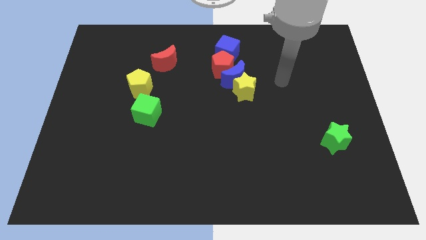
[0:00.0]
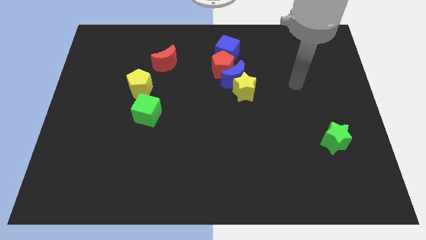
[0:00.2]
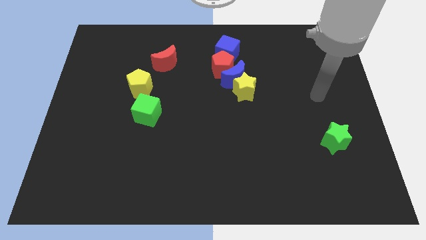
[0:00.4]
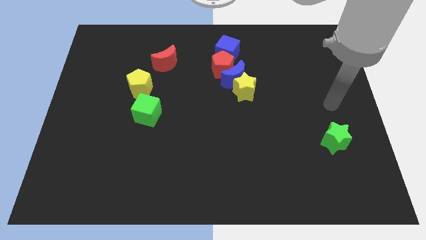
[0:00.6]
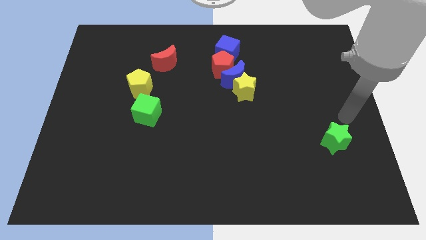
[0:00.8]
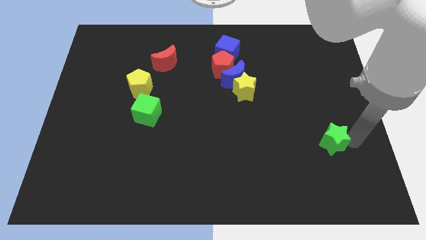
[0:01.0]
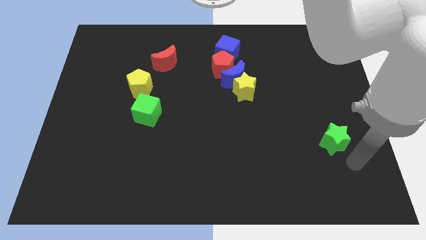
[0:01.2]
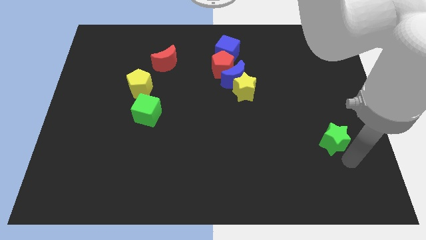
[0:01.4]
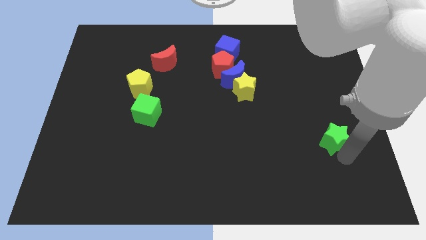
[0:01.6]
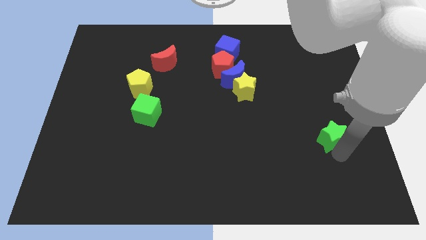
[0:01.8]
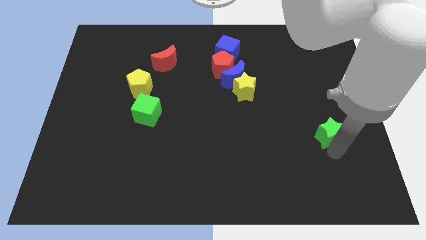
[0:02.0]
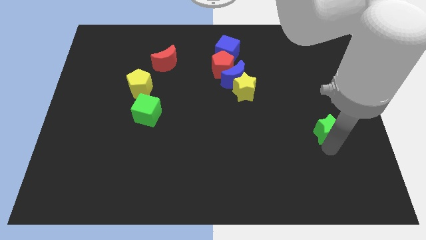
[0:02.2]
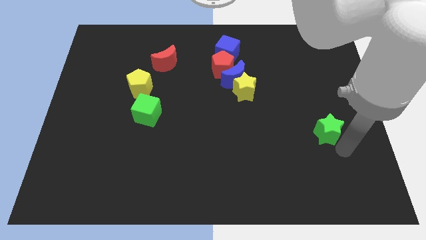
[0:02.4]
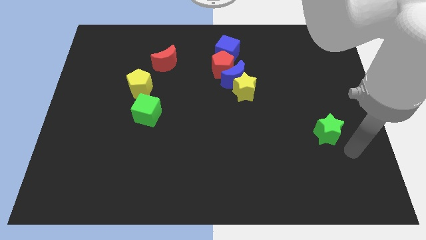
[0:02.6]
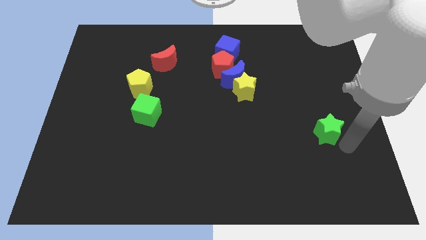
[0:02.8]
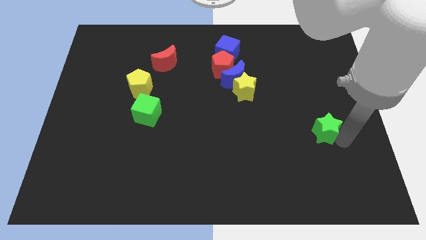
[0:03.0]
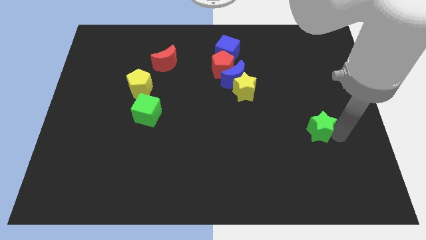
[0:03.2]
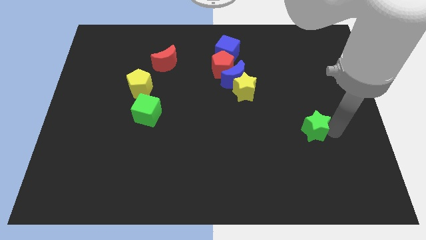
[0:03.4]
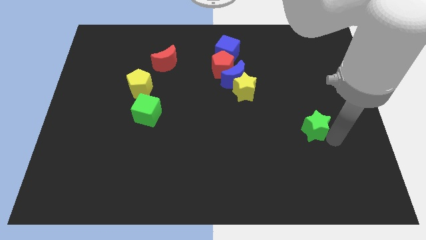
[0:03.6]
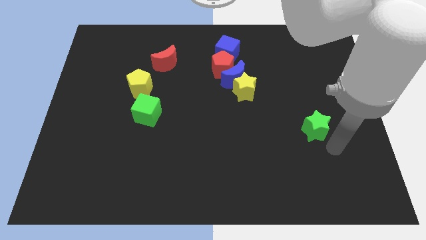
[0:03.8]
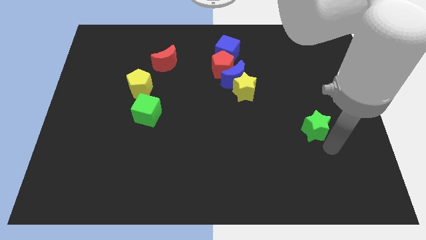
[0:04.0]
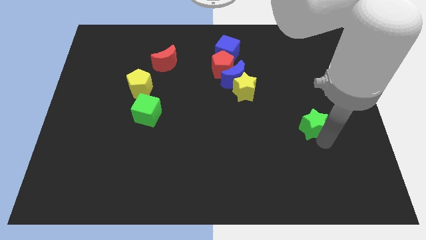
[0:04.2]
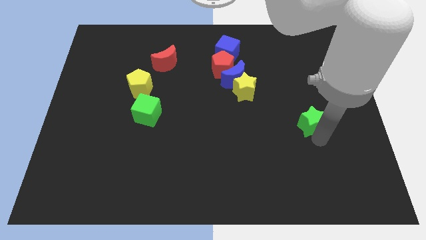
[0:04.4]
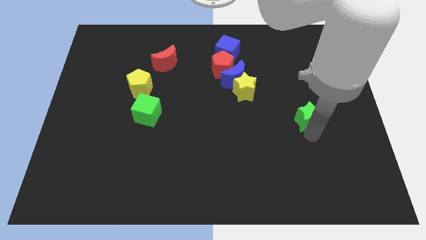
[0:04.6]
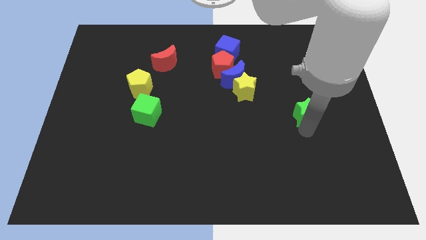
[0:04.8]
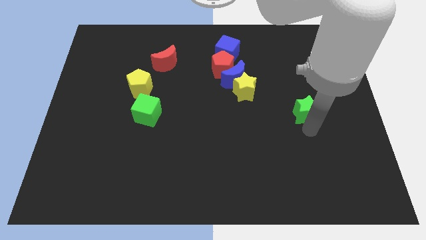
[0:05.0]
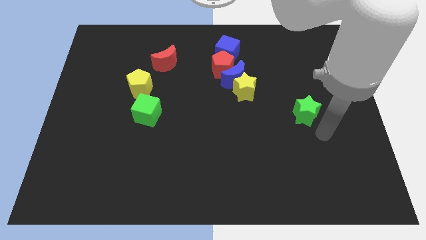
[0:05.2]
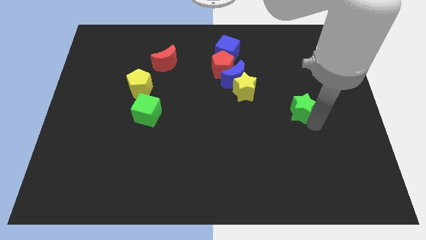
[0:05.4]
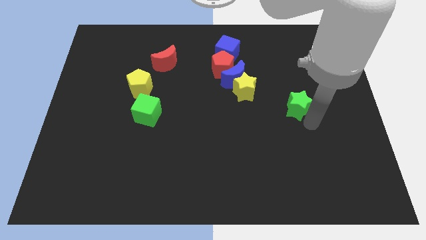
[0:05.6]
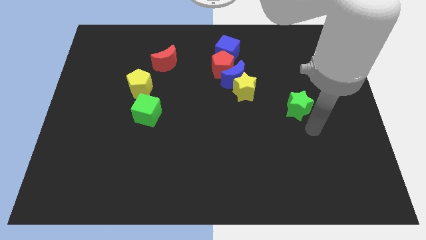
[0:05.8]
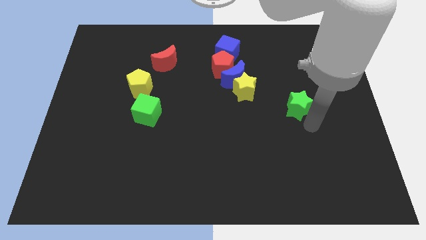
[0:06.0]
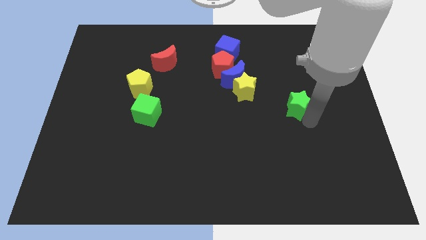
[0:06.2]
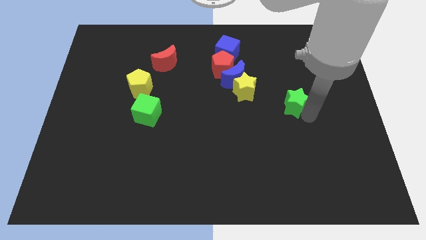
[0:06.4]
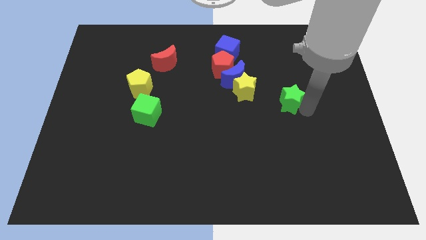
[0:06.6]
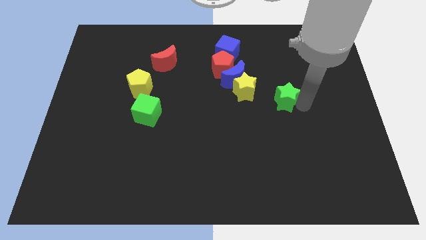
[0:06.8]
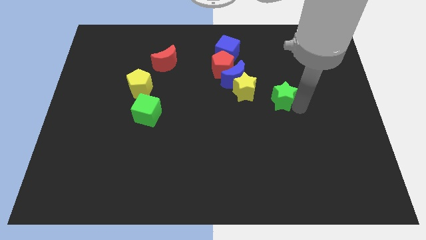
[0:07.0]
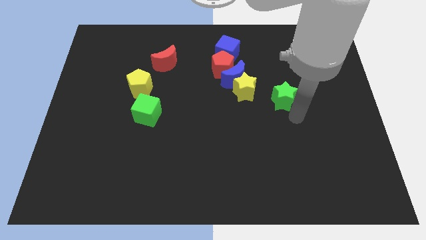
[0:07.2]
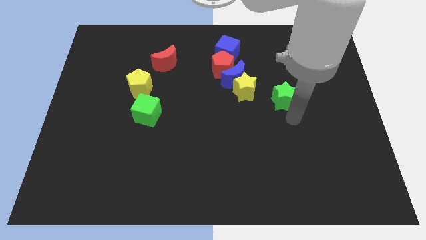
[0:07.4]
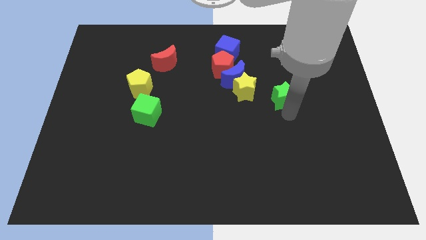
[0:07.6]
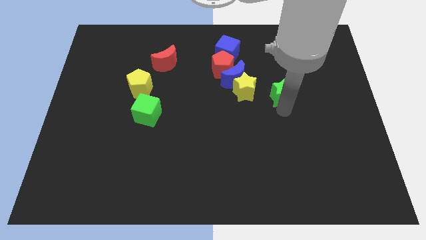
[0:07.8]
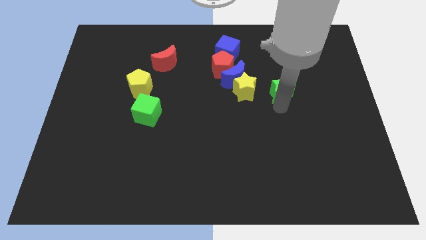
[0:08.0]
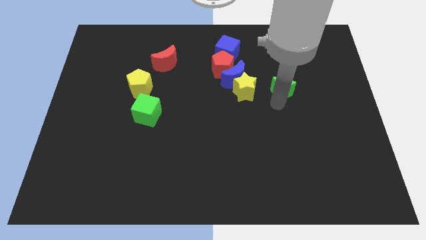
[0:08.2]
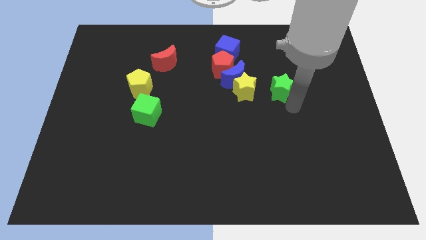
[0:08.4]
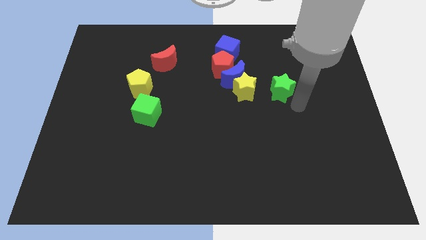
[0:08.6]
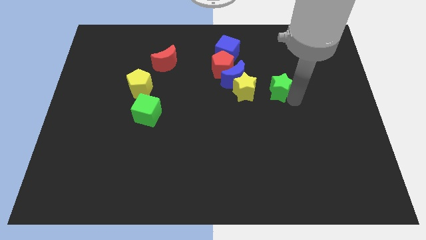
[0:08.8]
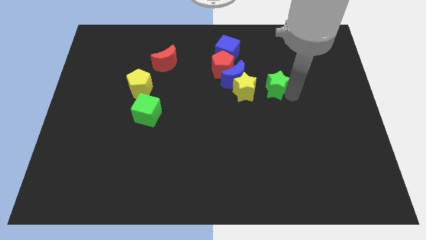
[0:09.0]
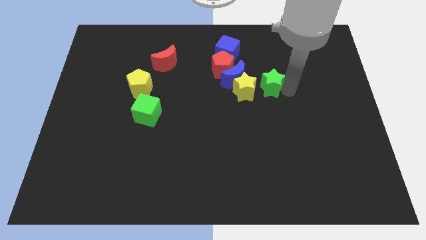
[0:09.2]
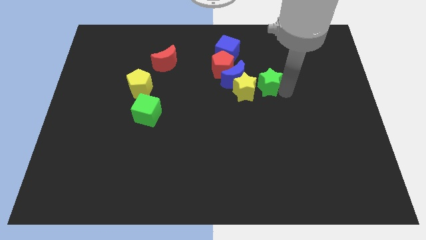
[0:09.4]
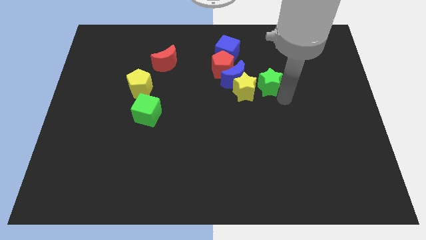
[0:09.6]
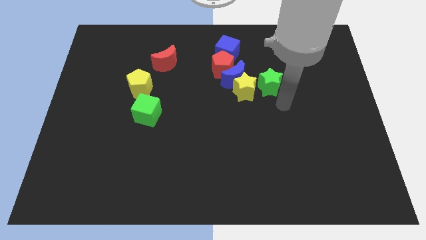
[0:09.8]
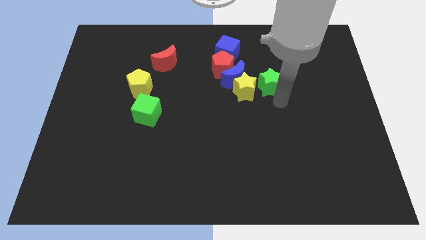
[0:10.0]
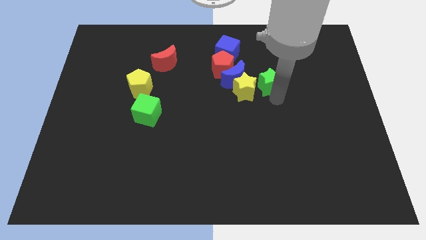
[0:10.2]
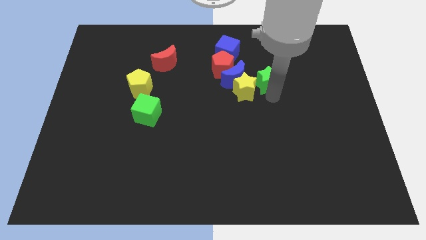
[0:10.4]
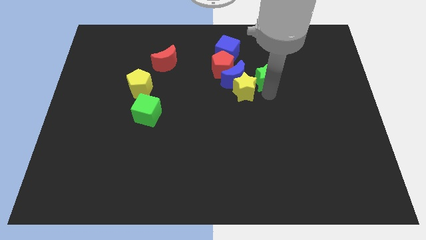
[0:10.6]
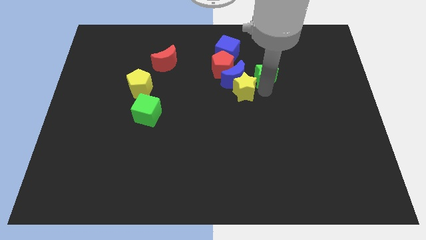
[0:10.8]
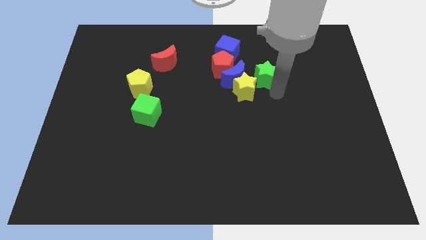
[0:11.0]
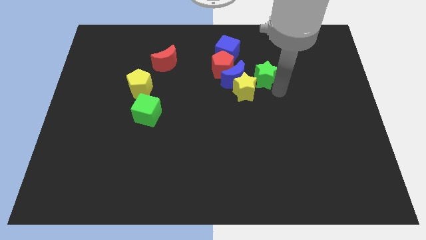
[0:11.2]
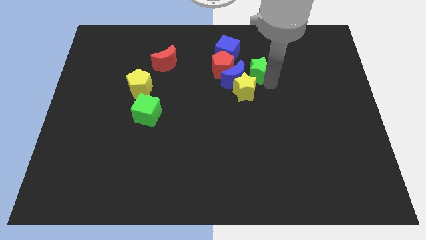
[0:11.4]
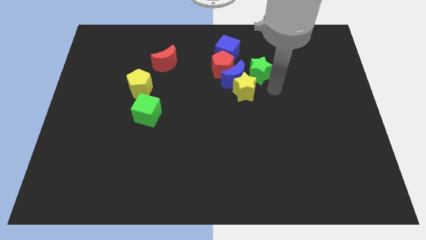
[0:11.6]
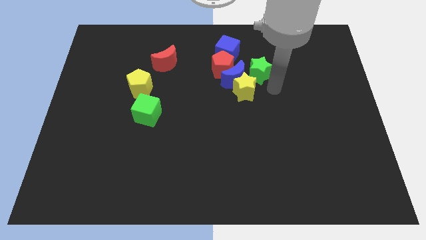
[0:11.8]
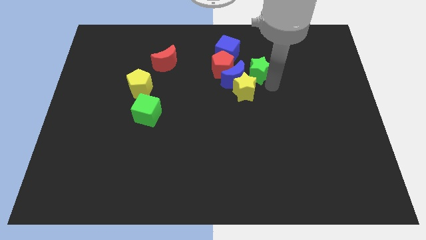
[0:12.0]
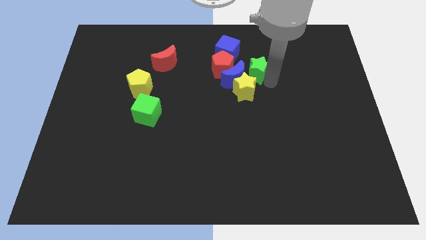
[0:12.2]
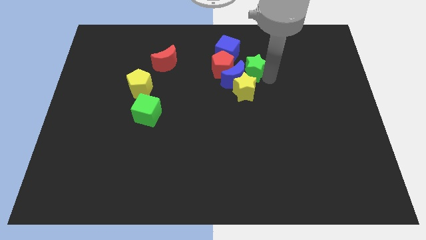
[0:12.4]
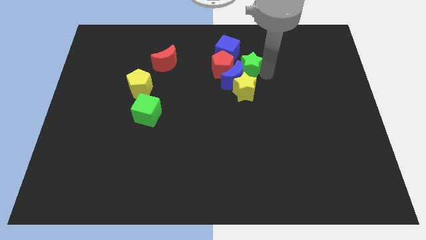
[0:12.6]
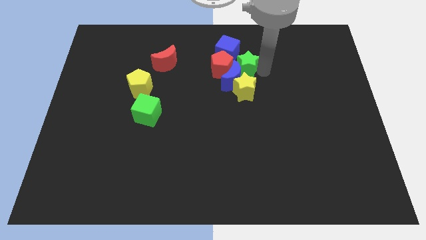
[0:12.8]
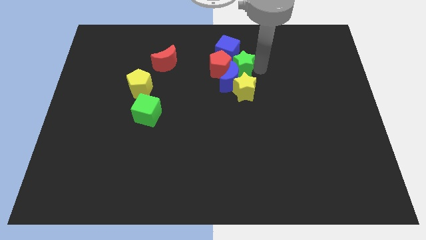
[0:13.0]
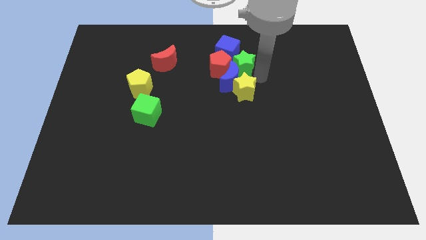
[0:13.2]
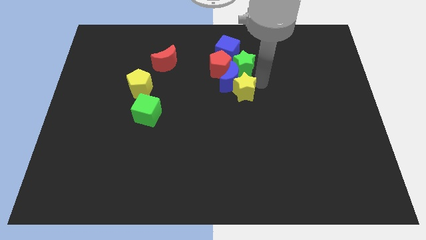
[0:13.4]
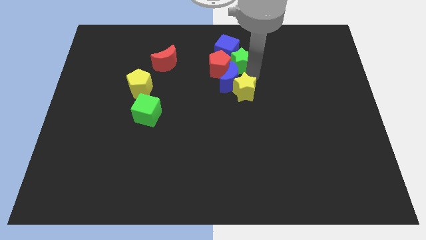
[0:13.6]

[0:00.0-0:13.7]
move the green star towards the blue cube
